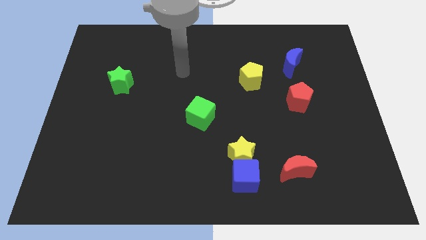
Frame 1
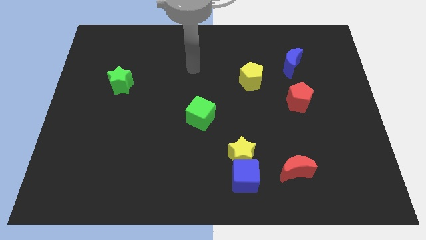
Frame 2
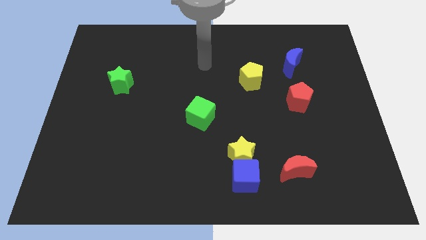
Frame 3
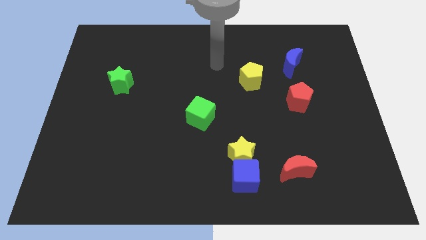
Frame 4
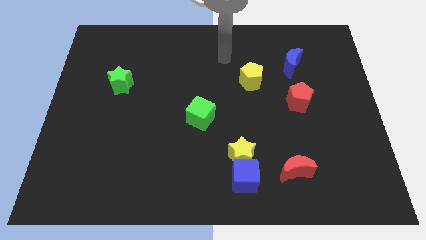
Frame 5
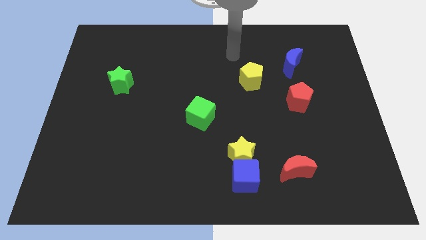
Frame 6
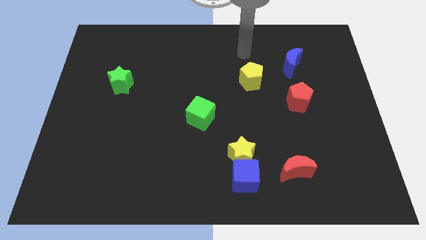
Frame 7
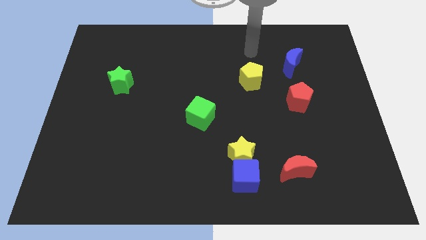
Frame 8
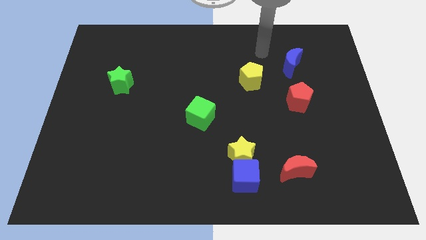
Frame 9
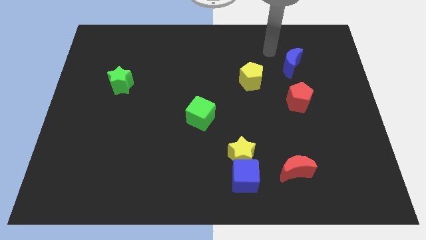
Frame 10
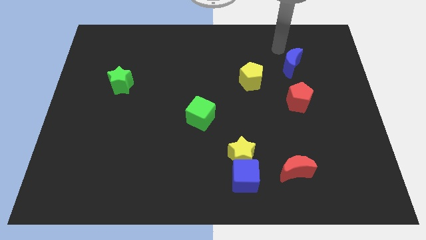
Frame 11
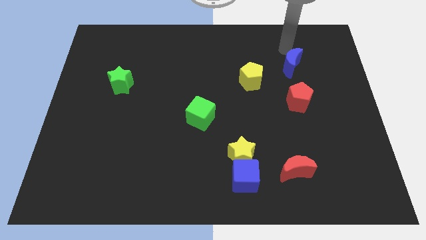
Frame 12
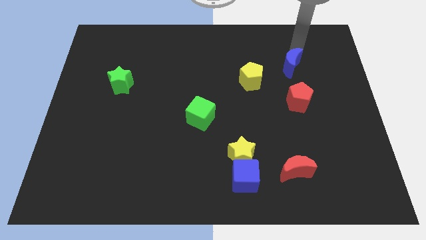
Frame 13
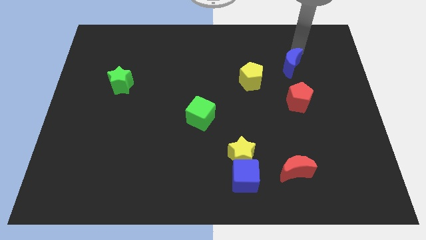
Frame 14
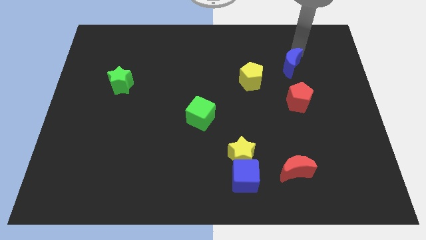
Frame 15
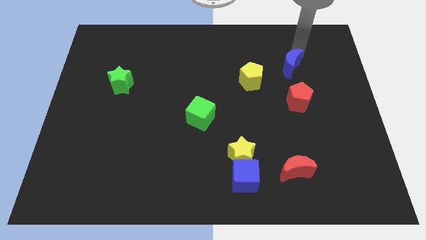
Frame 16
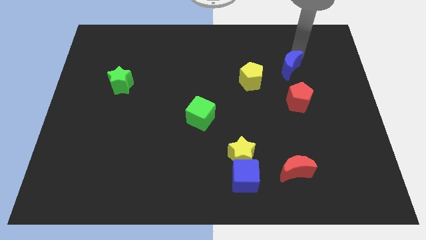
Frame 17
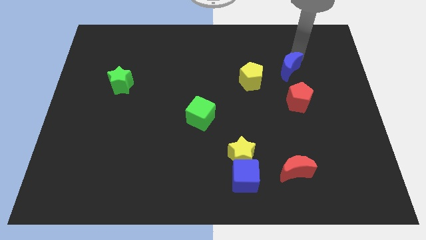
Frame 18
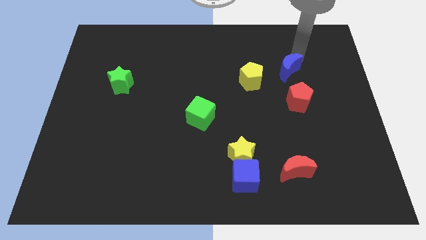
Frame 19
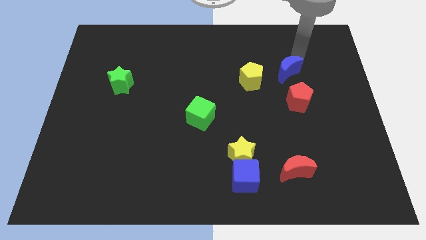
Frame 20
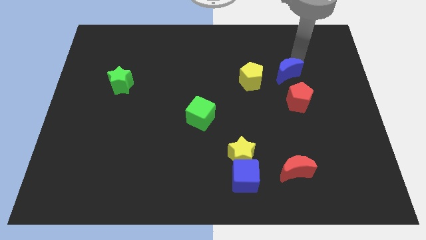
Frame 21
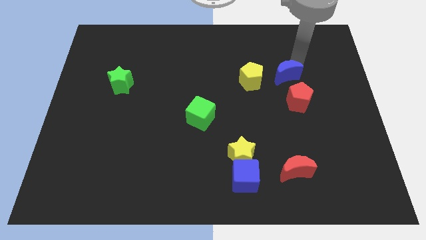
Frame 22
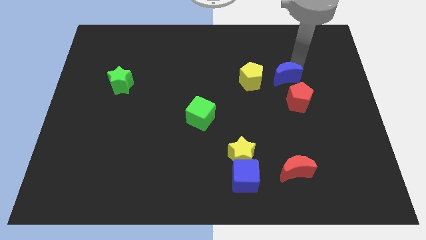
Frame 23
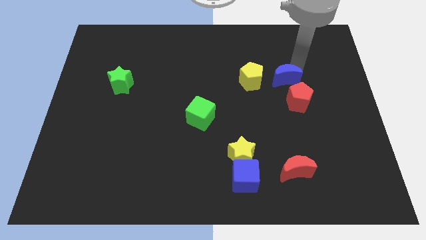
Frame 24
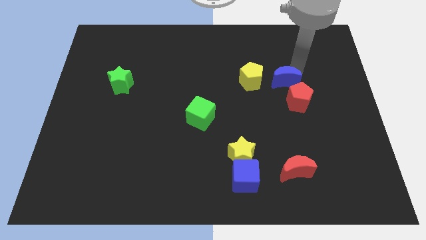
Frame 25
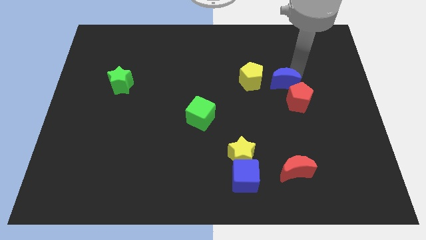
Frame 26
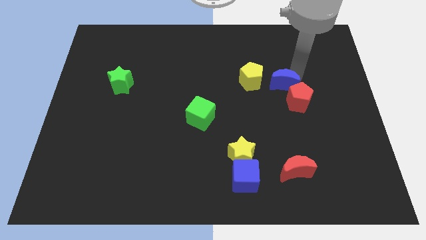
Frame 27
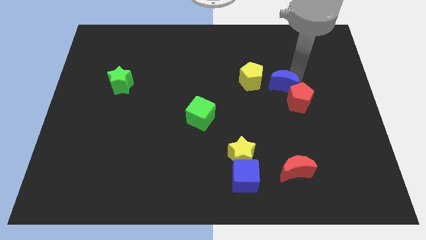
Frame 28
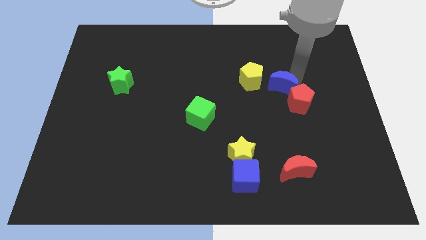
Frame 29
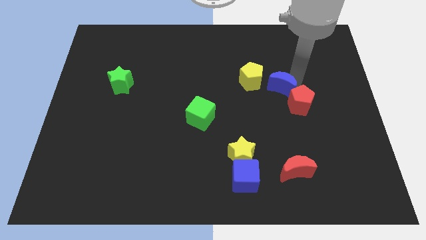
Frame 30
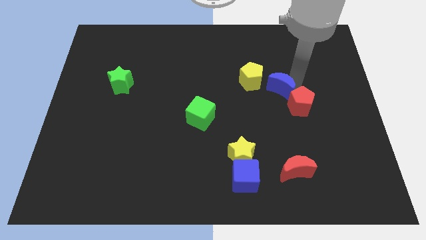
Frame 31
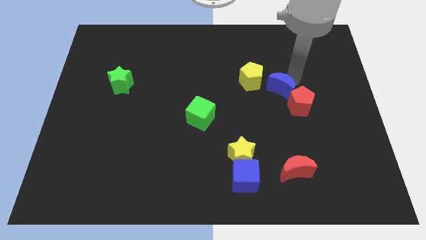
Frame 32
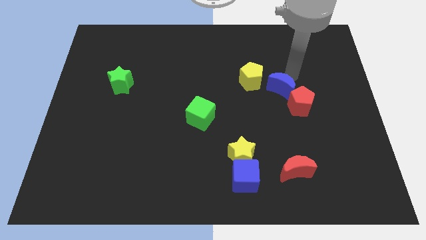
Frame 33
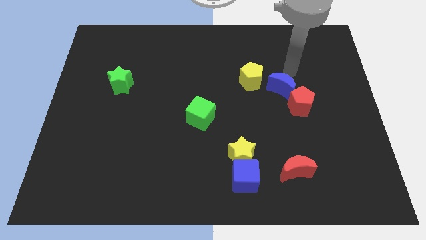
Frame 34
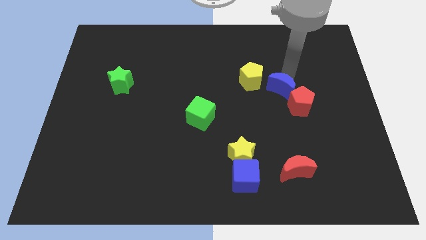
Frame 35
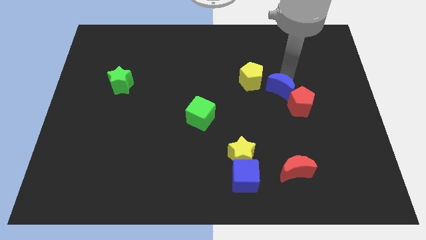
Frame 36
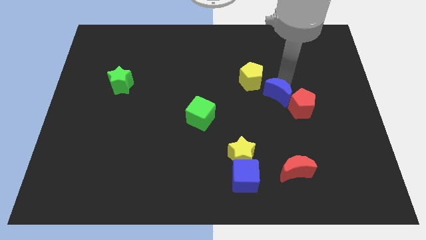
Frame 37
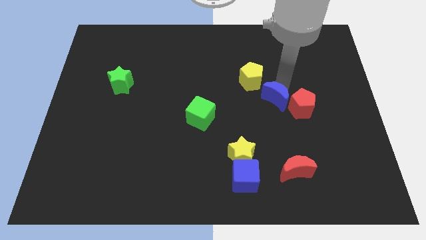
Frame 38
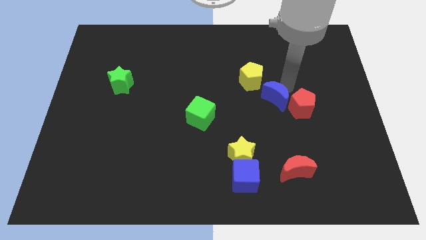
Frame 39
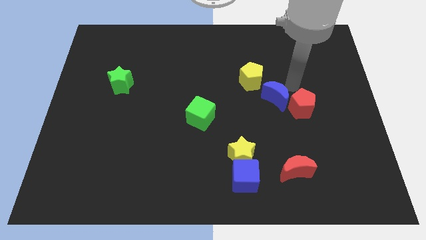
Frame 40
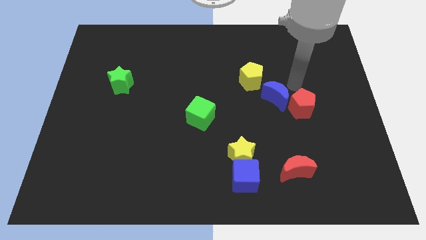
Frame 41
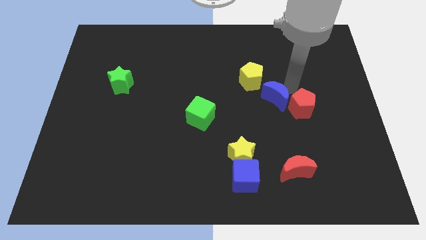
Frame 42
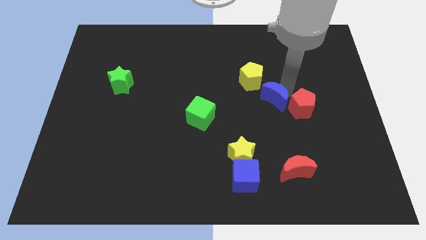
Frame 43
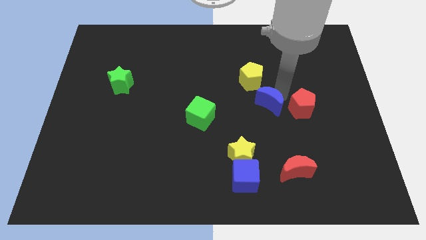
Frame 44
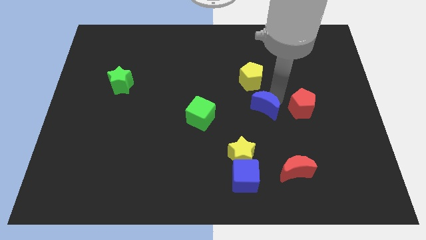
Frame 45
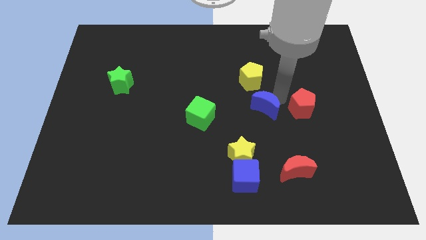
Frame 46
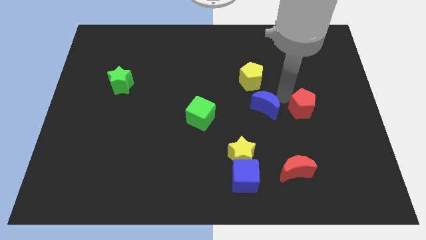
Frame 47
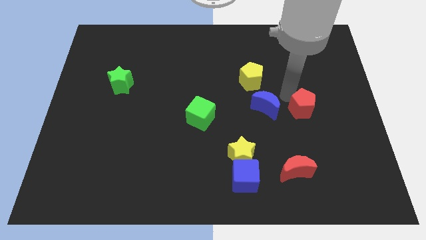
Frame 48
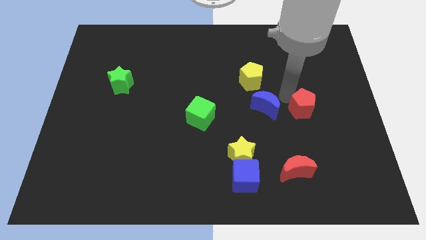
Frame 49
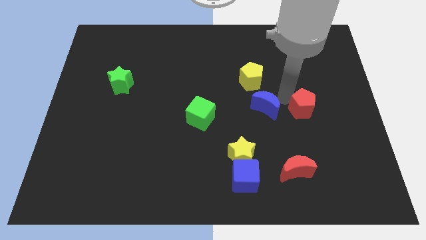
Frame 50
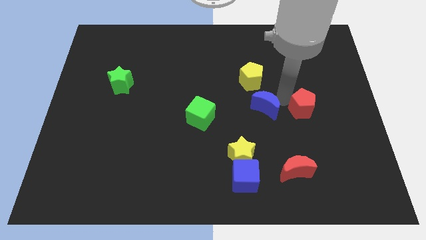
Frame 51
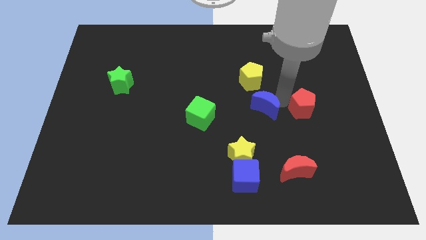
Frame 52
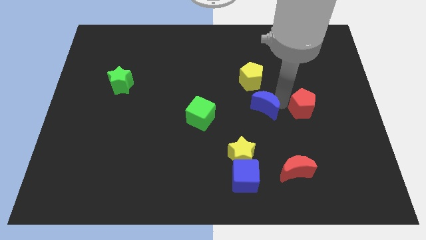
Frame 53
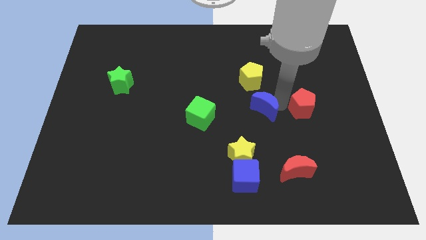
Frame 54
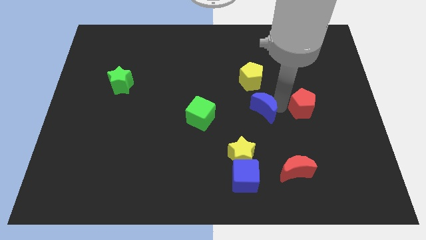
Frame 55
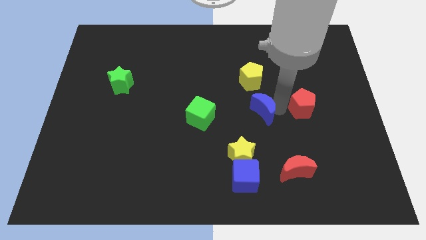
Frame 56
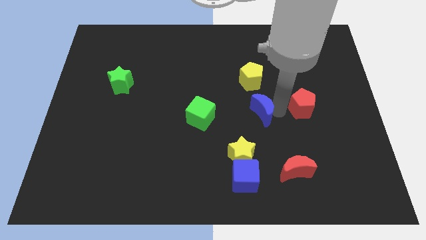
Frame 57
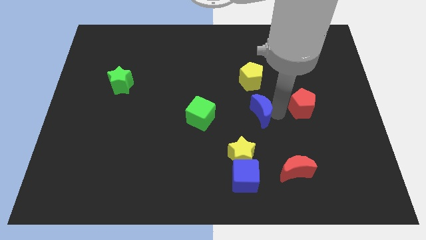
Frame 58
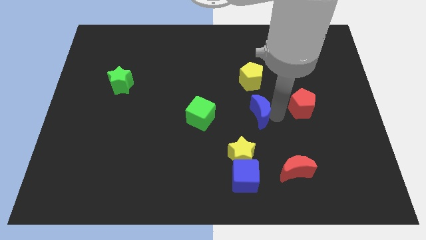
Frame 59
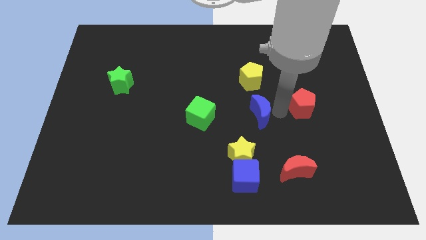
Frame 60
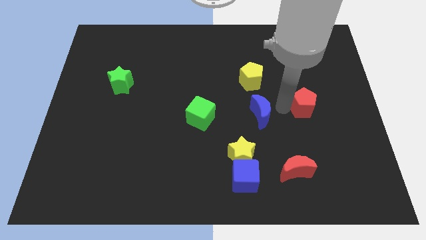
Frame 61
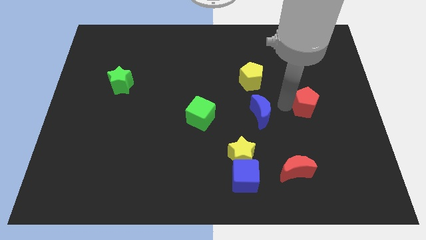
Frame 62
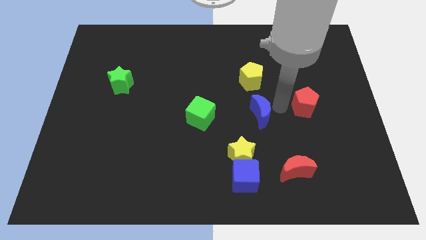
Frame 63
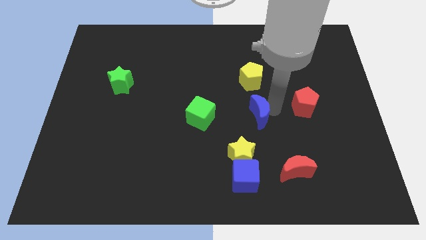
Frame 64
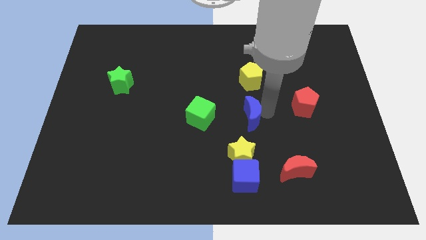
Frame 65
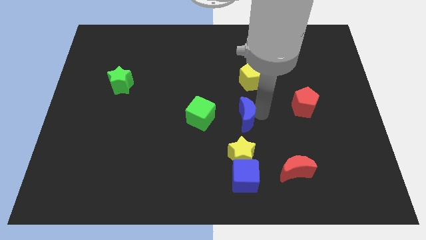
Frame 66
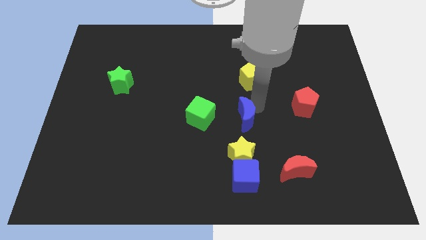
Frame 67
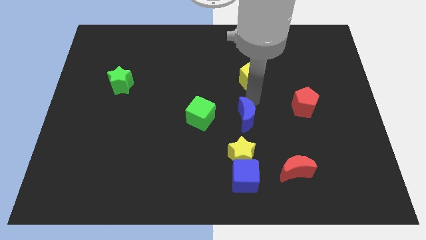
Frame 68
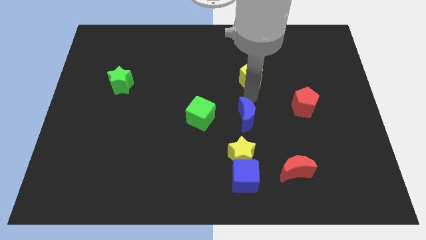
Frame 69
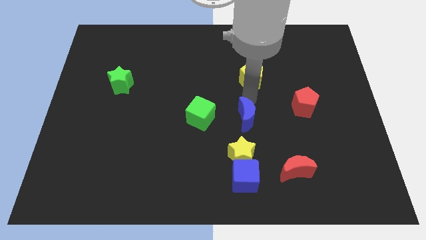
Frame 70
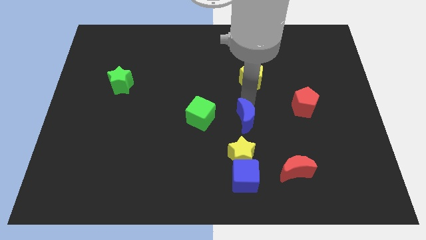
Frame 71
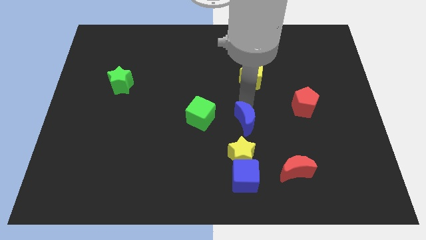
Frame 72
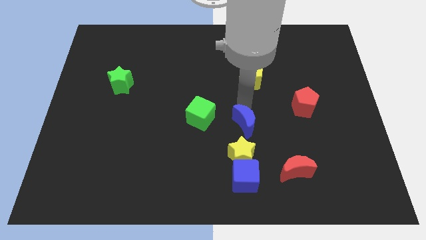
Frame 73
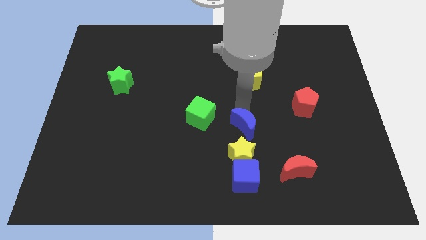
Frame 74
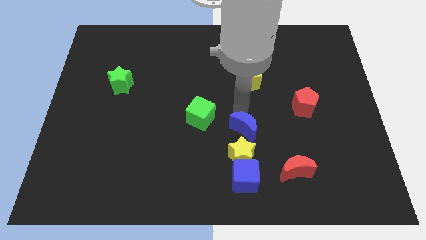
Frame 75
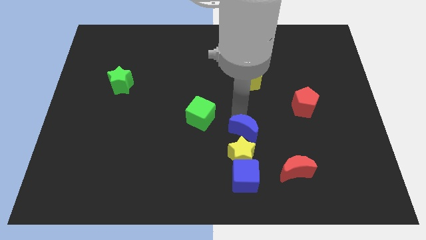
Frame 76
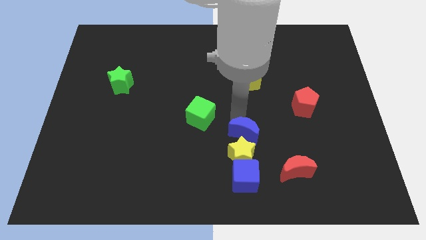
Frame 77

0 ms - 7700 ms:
put the blue moon next to the yellow star
